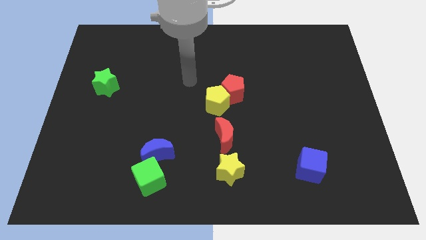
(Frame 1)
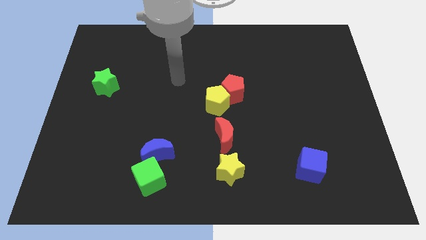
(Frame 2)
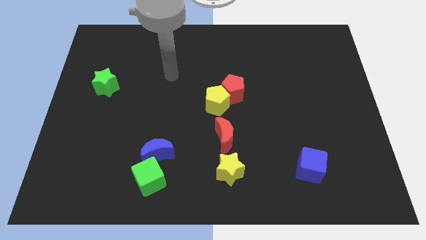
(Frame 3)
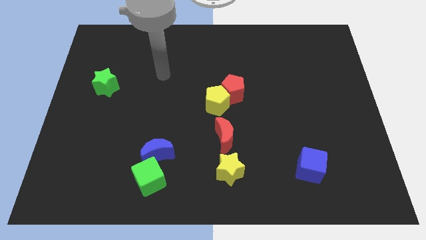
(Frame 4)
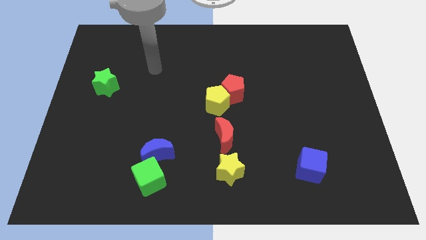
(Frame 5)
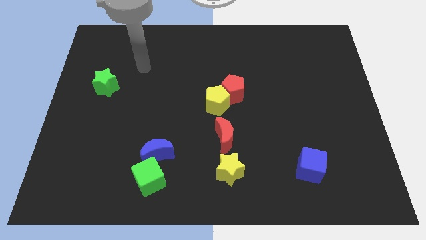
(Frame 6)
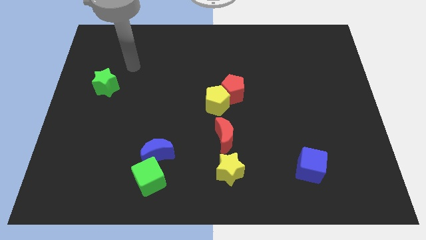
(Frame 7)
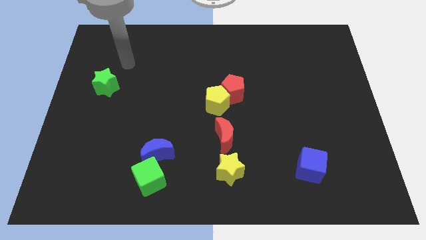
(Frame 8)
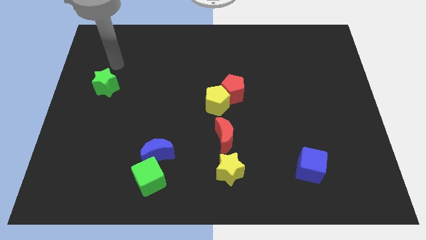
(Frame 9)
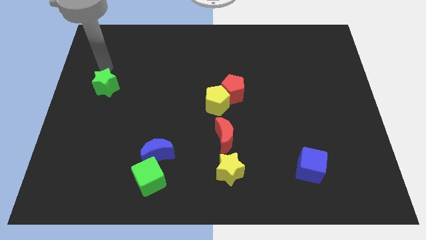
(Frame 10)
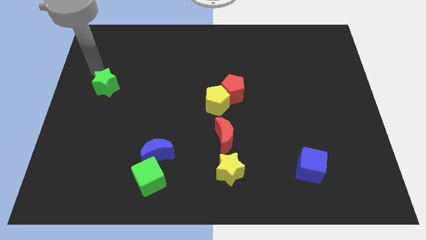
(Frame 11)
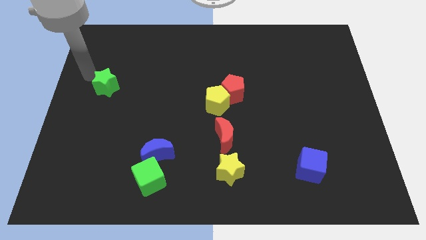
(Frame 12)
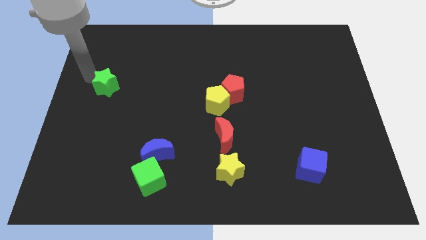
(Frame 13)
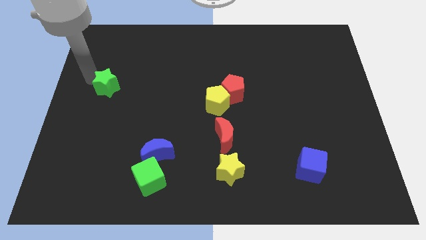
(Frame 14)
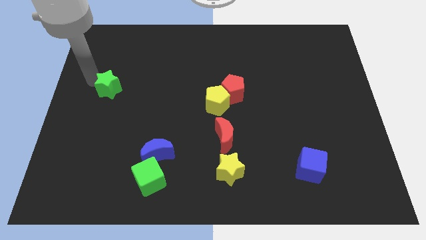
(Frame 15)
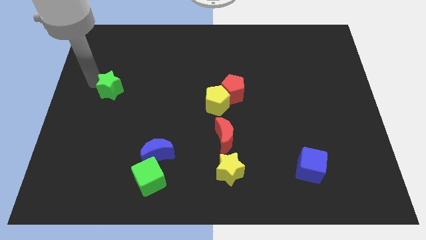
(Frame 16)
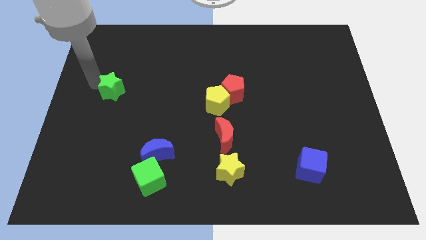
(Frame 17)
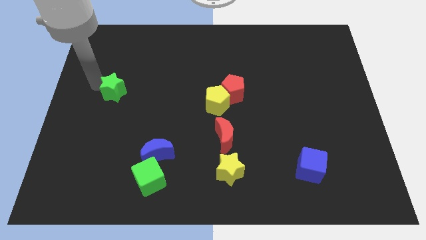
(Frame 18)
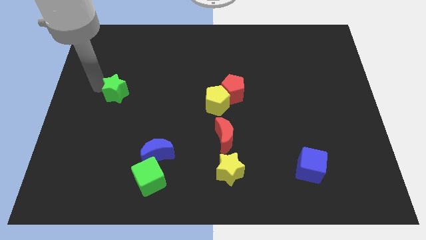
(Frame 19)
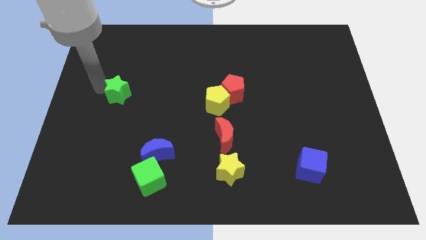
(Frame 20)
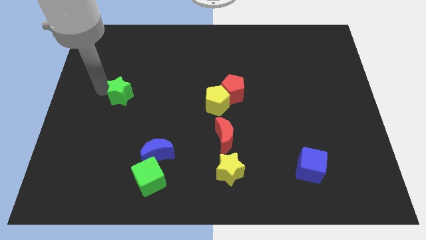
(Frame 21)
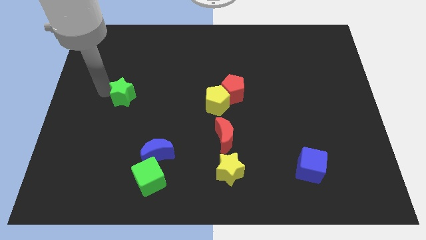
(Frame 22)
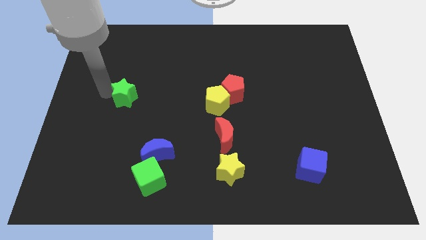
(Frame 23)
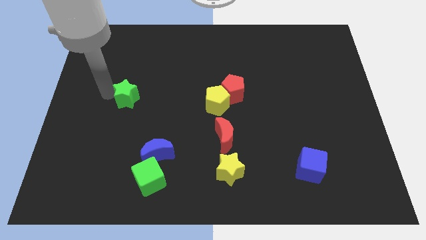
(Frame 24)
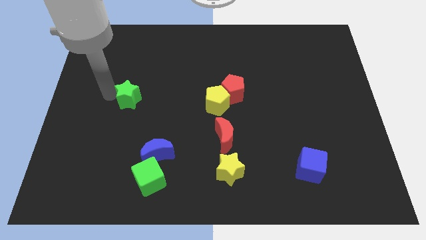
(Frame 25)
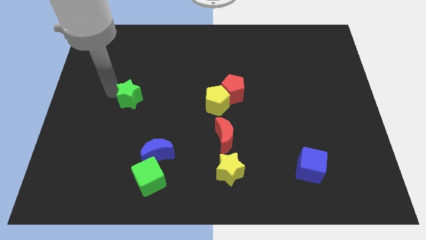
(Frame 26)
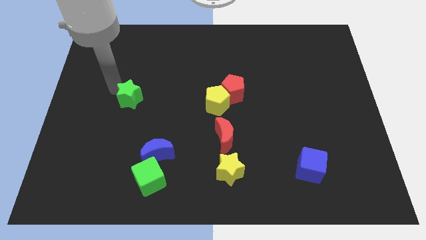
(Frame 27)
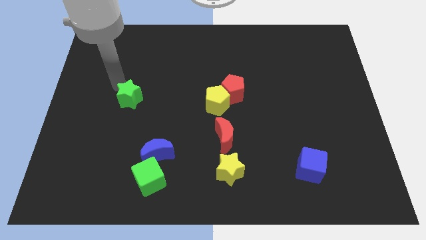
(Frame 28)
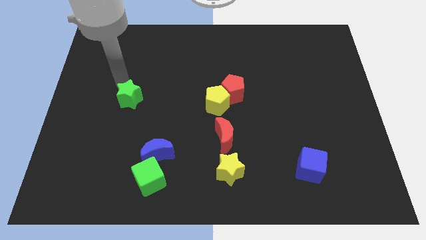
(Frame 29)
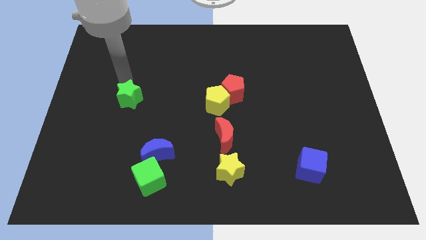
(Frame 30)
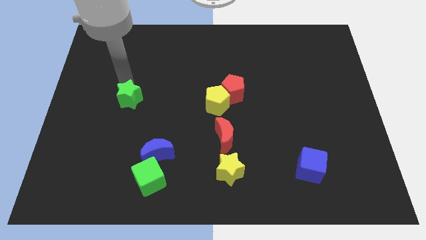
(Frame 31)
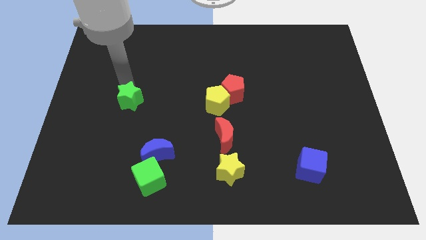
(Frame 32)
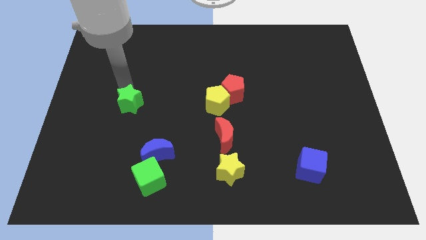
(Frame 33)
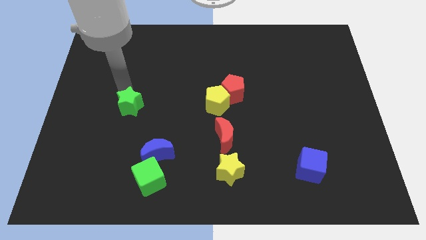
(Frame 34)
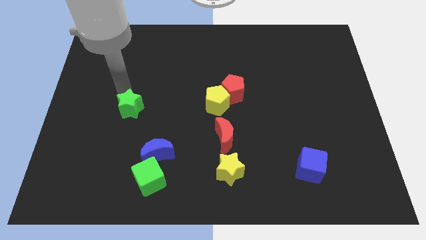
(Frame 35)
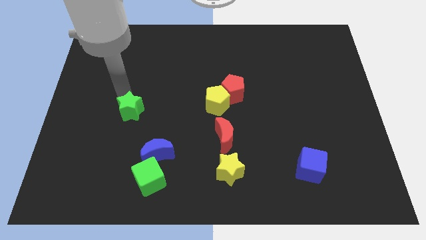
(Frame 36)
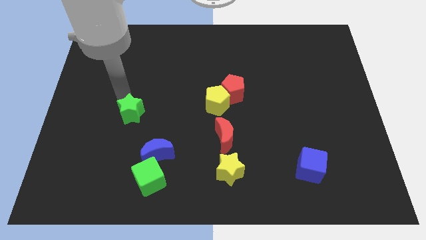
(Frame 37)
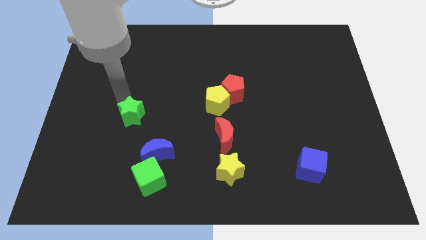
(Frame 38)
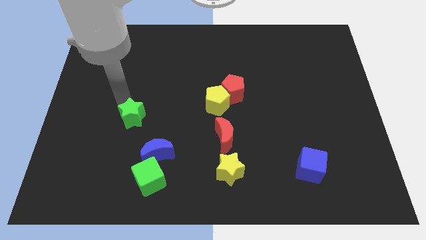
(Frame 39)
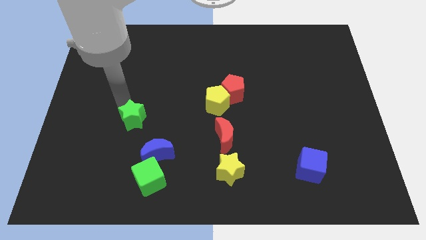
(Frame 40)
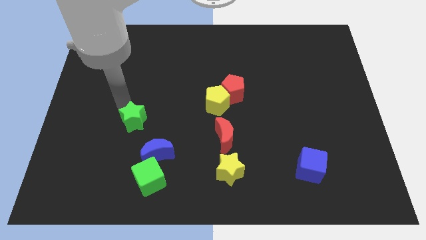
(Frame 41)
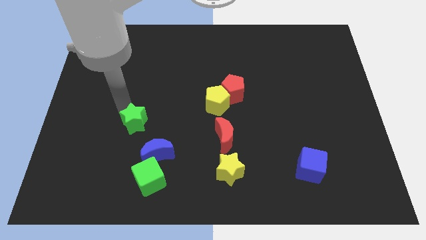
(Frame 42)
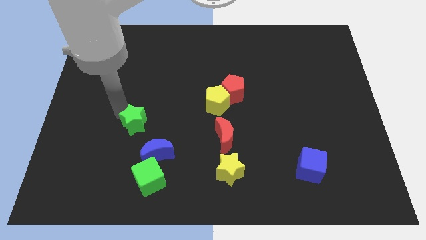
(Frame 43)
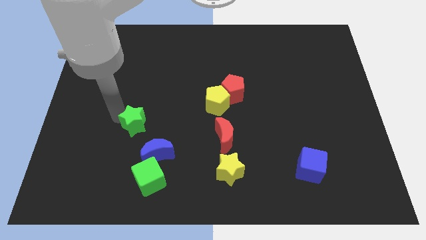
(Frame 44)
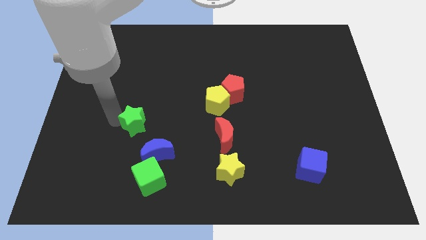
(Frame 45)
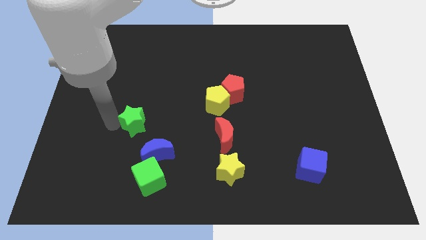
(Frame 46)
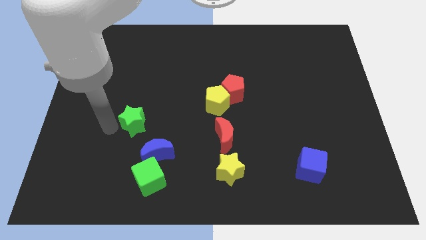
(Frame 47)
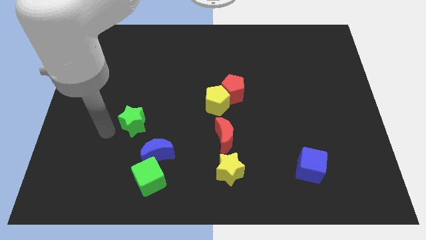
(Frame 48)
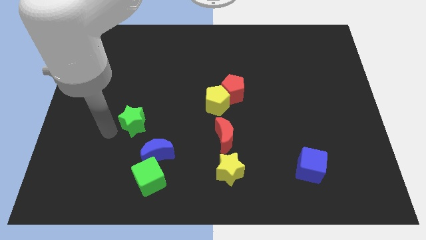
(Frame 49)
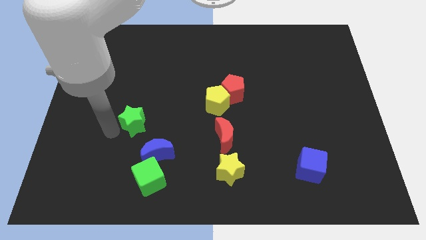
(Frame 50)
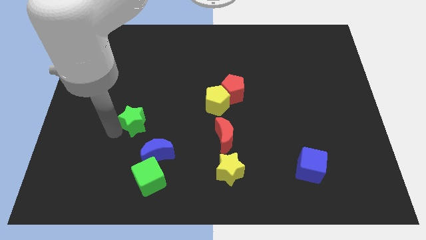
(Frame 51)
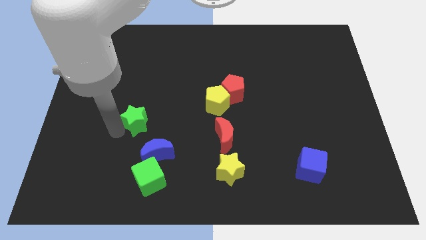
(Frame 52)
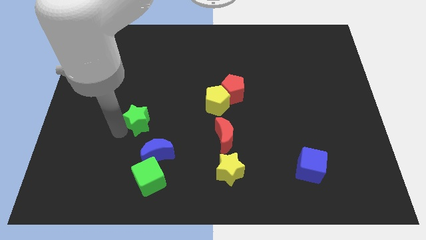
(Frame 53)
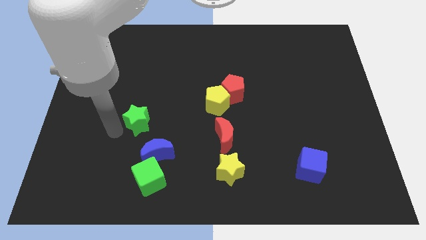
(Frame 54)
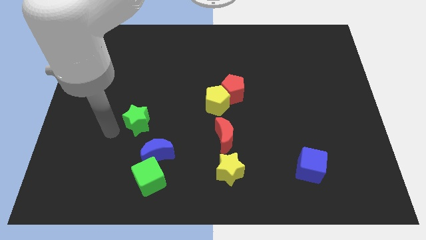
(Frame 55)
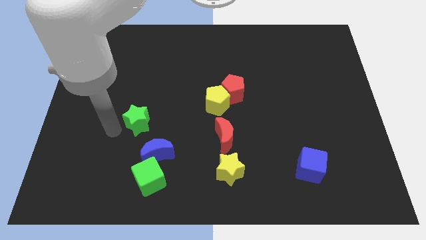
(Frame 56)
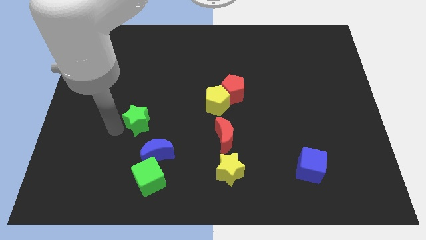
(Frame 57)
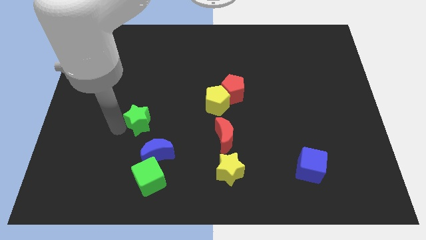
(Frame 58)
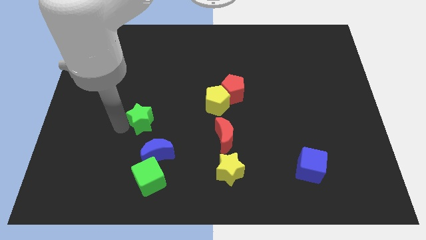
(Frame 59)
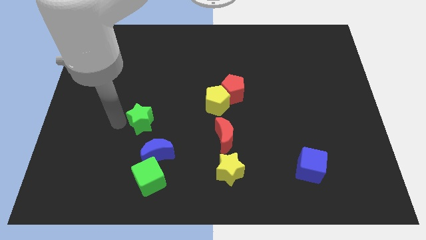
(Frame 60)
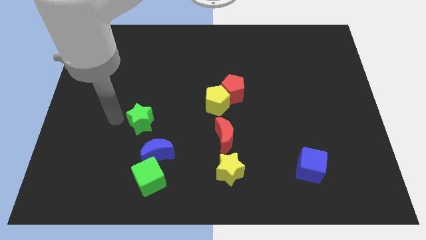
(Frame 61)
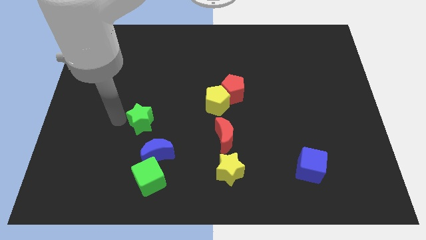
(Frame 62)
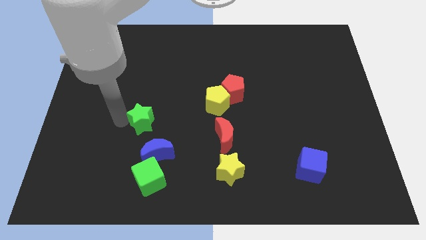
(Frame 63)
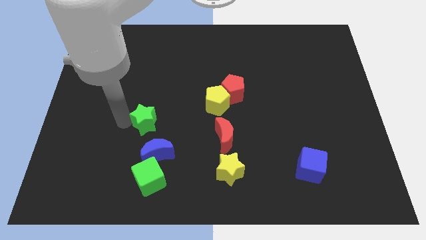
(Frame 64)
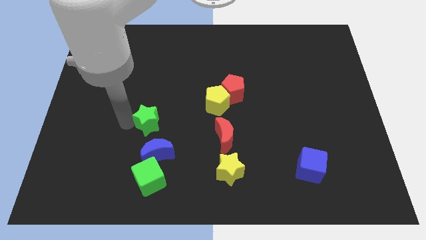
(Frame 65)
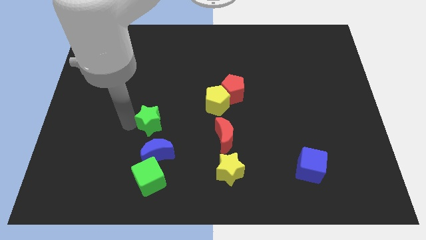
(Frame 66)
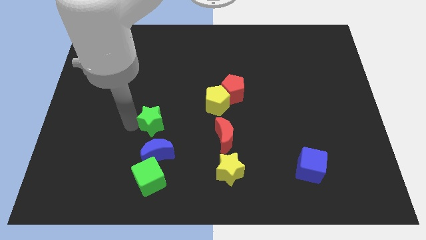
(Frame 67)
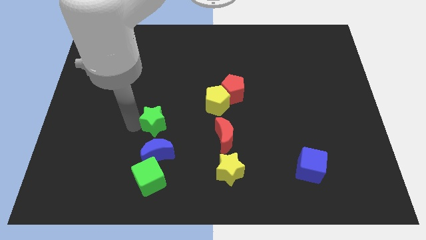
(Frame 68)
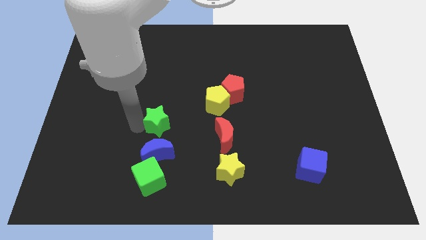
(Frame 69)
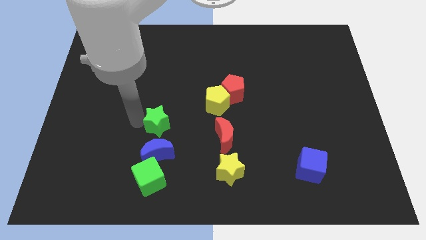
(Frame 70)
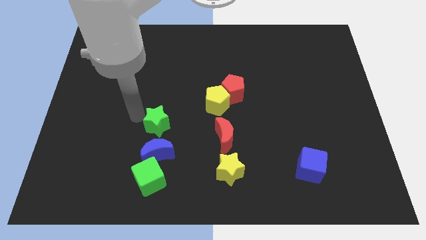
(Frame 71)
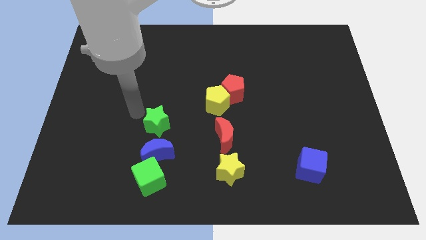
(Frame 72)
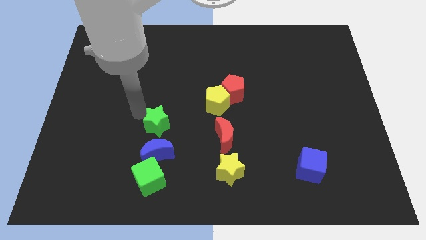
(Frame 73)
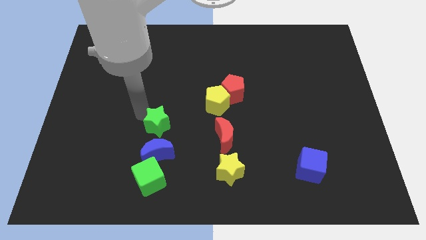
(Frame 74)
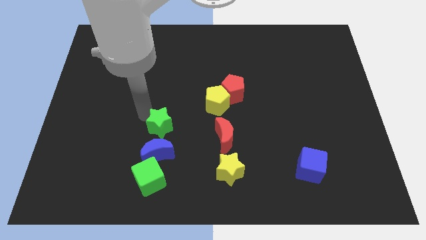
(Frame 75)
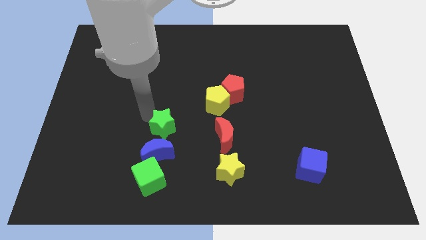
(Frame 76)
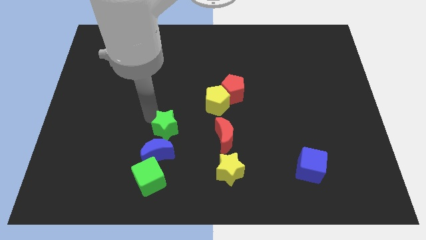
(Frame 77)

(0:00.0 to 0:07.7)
move the green star downwards and to the right
